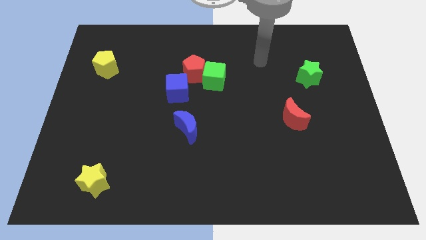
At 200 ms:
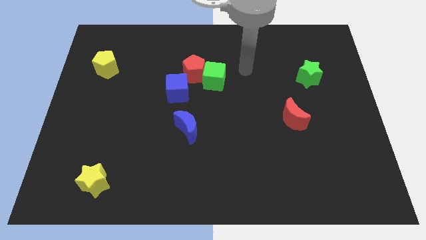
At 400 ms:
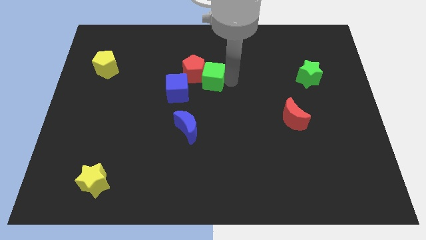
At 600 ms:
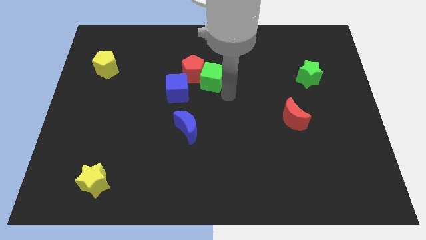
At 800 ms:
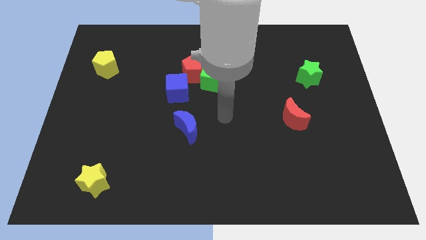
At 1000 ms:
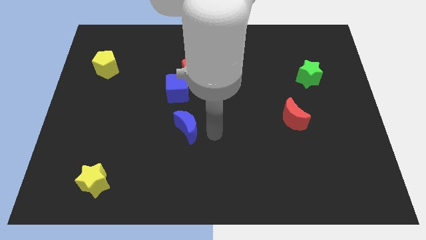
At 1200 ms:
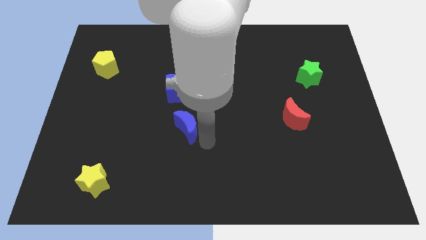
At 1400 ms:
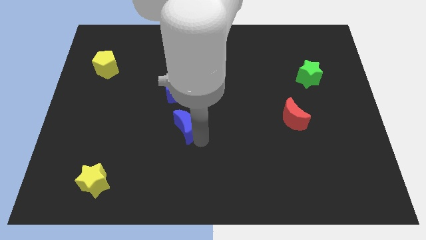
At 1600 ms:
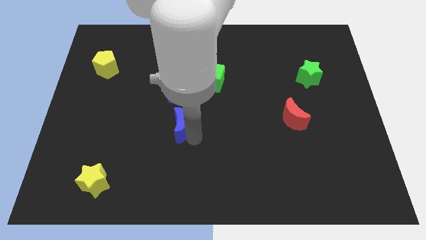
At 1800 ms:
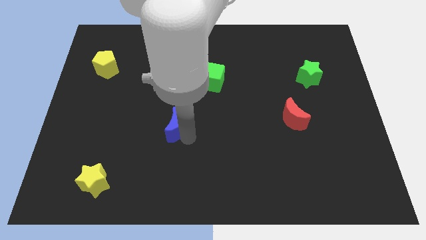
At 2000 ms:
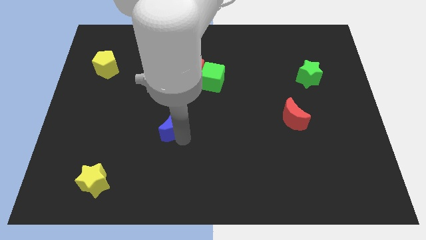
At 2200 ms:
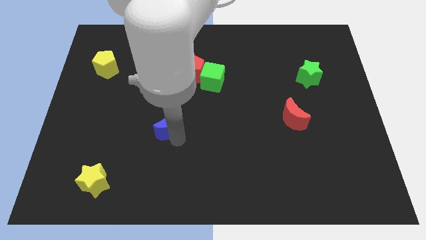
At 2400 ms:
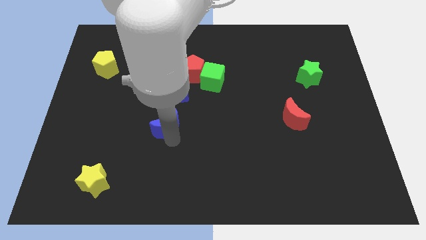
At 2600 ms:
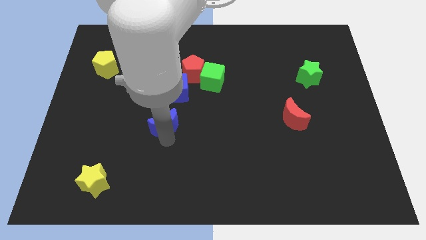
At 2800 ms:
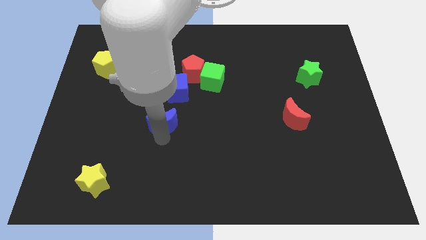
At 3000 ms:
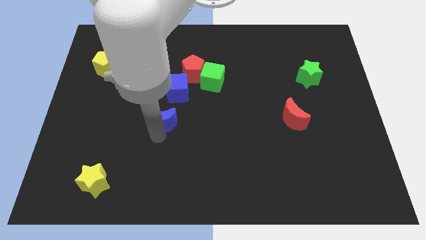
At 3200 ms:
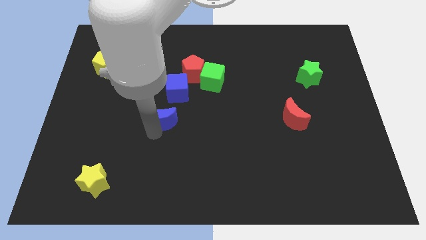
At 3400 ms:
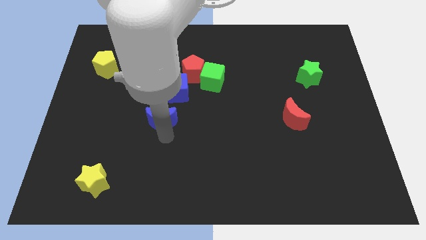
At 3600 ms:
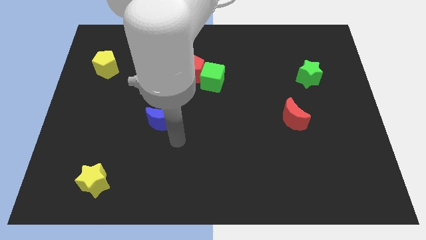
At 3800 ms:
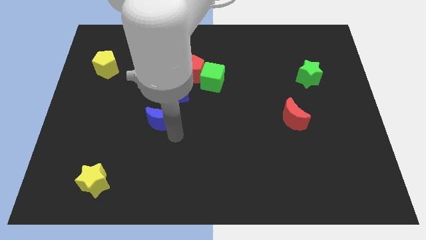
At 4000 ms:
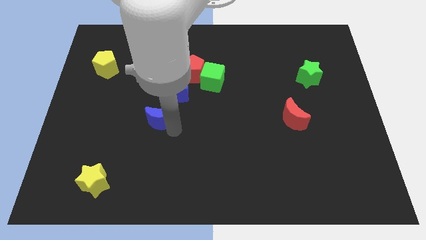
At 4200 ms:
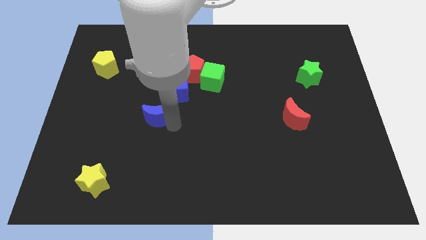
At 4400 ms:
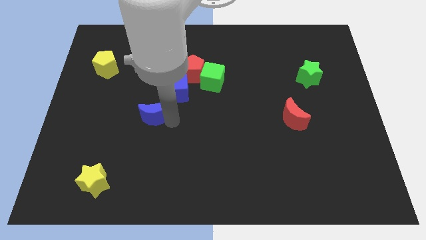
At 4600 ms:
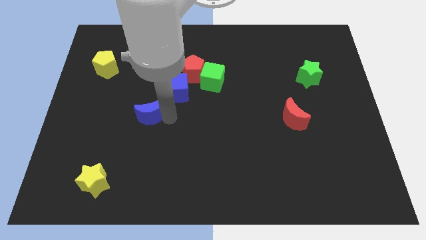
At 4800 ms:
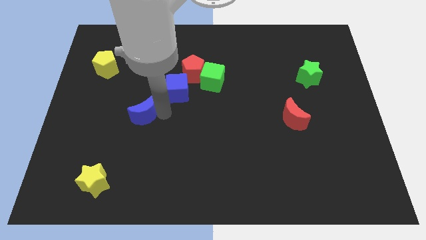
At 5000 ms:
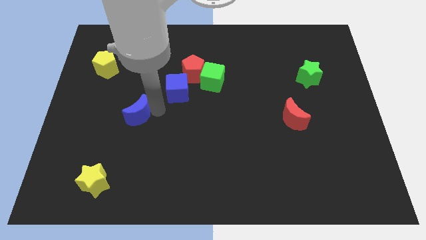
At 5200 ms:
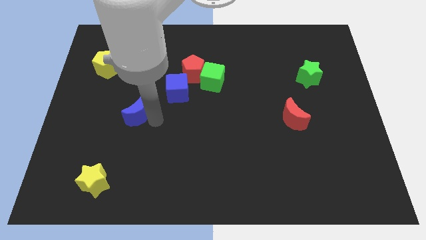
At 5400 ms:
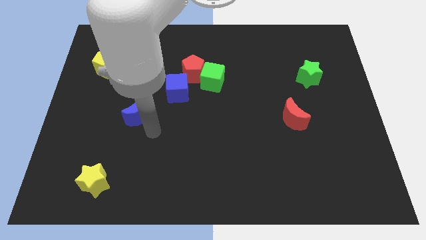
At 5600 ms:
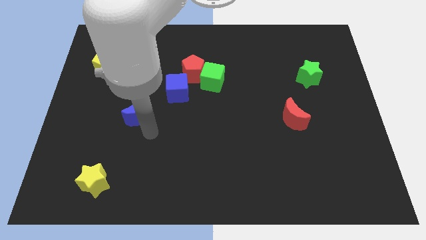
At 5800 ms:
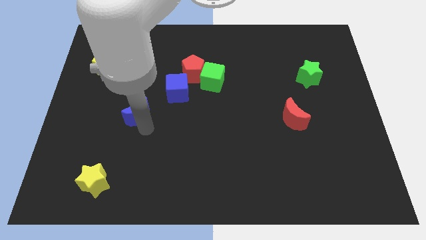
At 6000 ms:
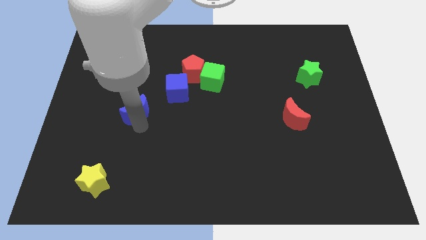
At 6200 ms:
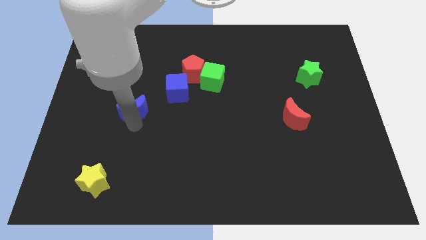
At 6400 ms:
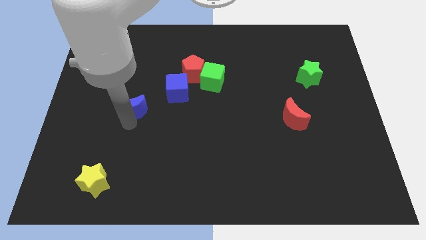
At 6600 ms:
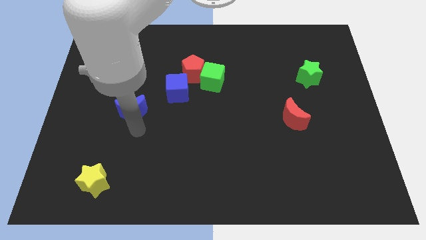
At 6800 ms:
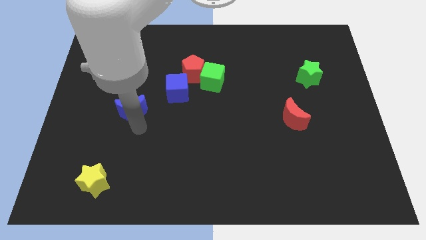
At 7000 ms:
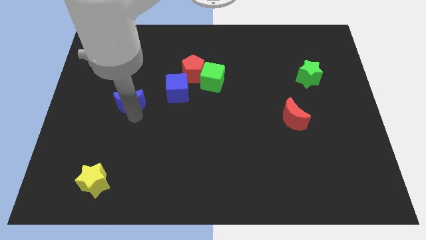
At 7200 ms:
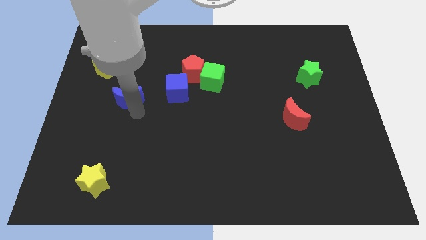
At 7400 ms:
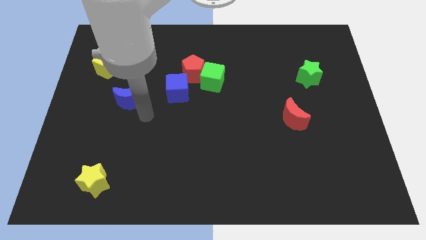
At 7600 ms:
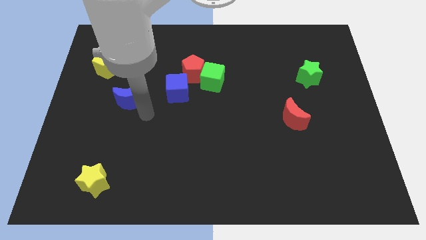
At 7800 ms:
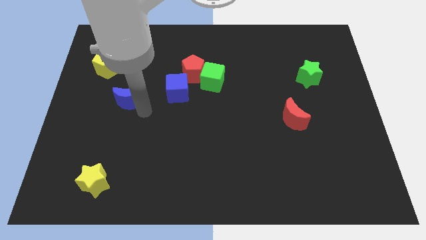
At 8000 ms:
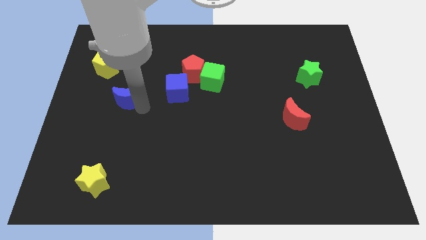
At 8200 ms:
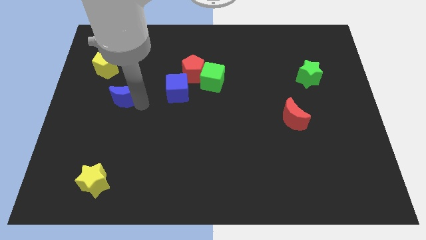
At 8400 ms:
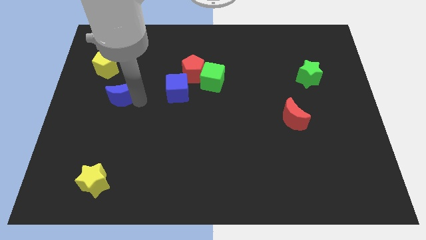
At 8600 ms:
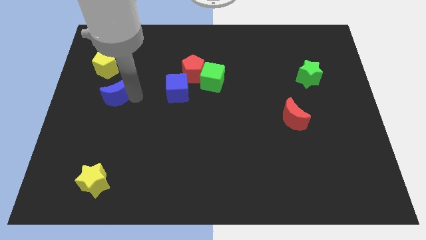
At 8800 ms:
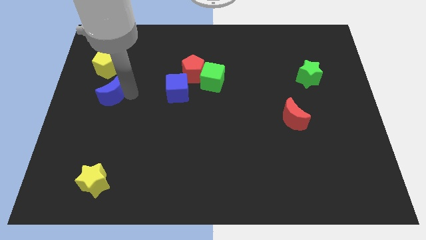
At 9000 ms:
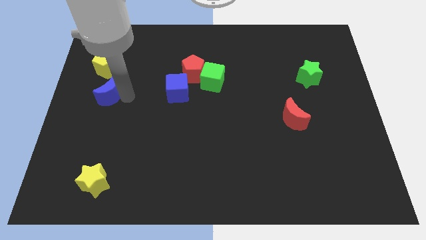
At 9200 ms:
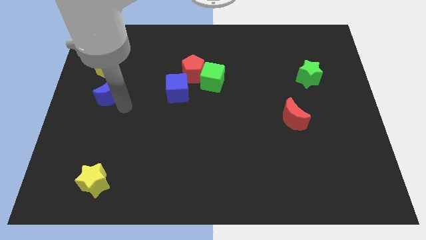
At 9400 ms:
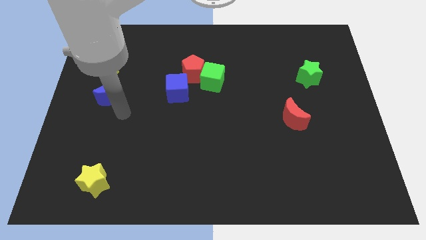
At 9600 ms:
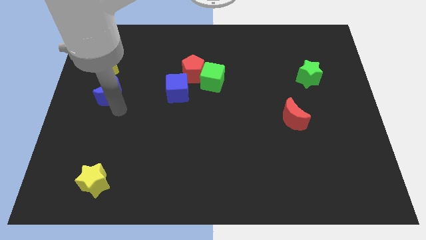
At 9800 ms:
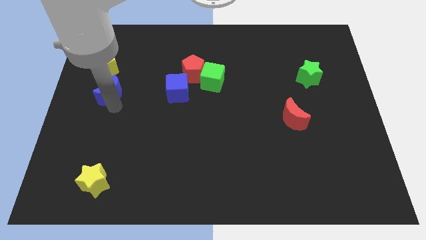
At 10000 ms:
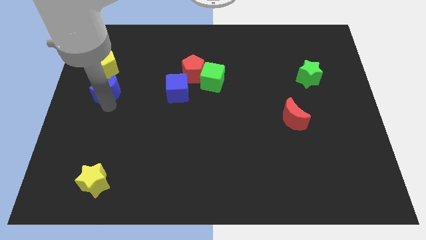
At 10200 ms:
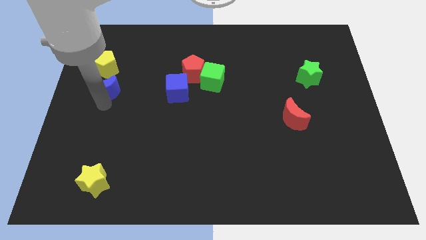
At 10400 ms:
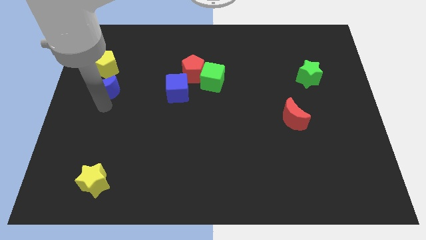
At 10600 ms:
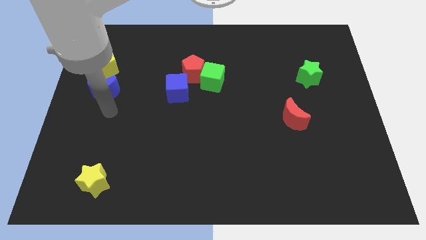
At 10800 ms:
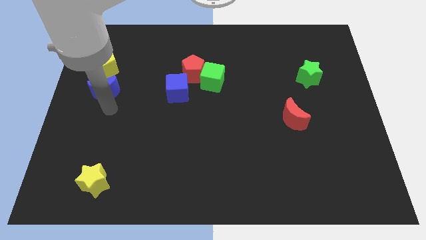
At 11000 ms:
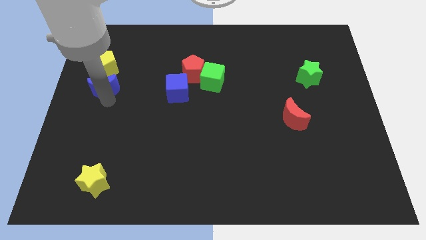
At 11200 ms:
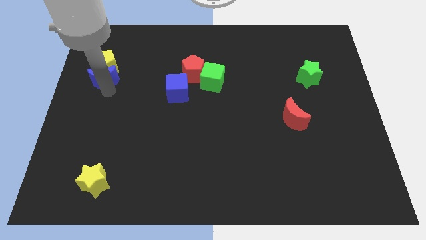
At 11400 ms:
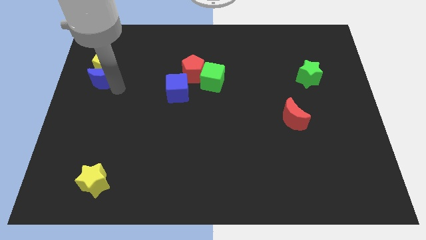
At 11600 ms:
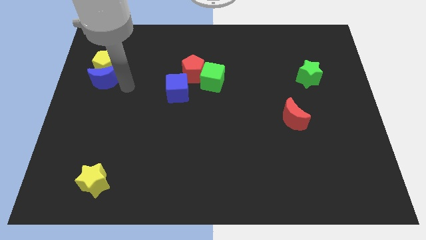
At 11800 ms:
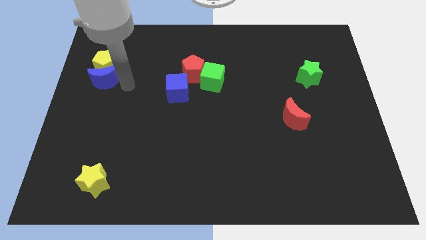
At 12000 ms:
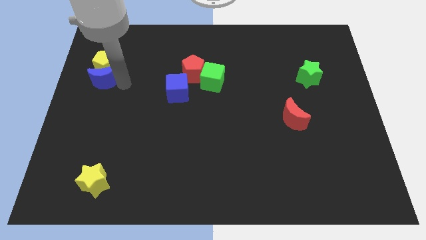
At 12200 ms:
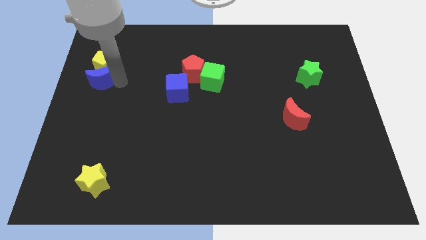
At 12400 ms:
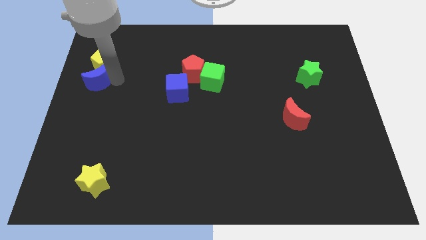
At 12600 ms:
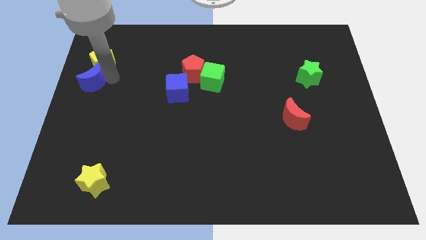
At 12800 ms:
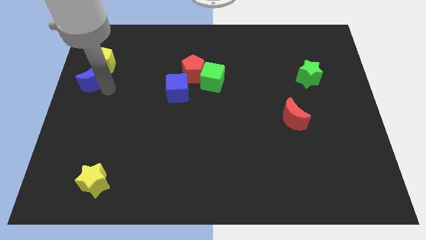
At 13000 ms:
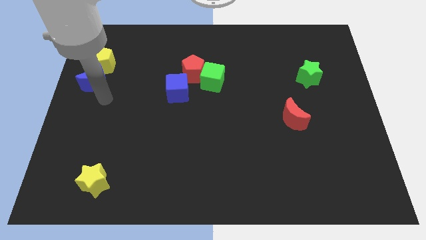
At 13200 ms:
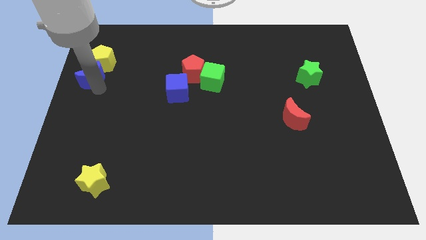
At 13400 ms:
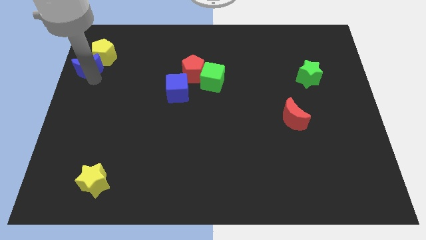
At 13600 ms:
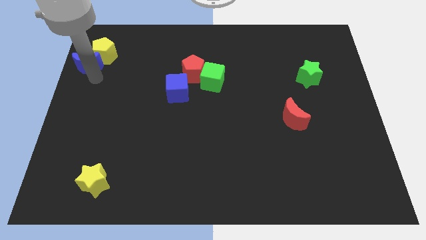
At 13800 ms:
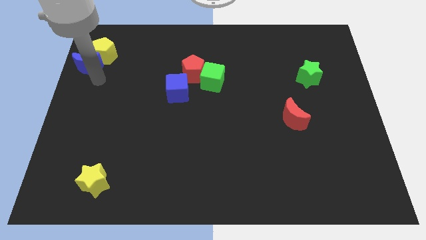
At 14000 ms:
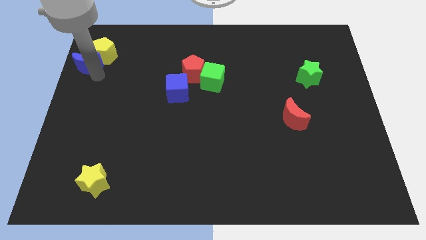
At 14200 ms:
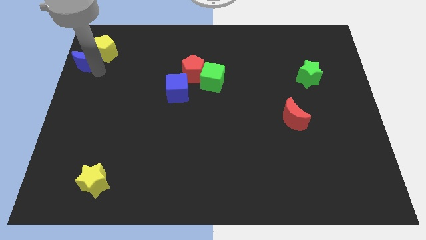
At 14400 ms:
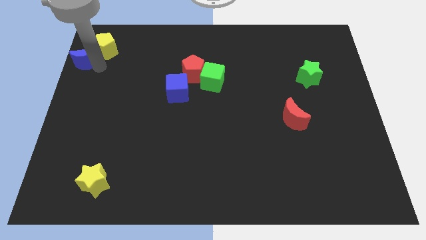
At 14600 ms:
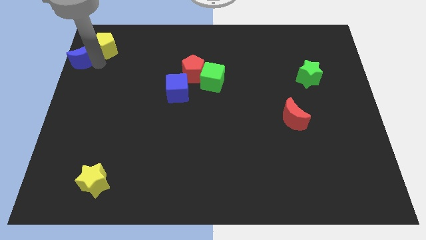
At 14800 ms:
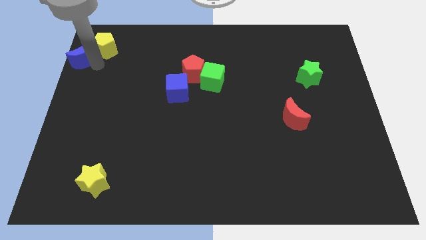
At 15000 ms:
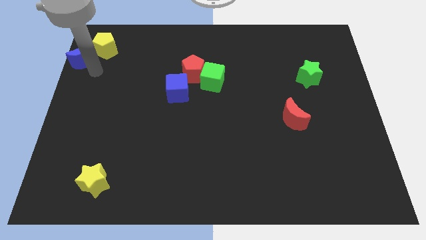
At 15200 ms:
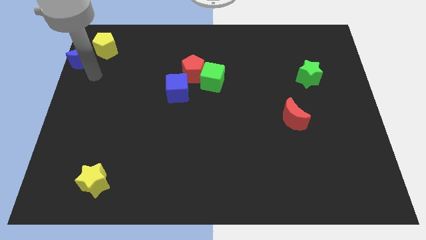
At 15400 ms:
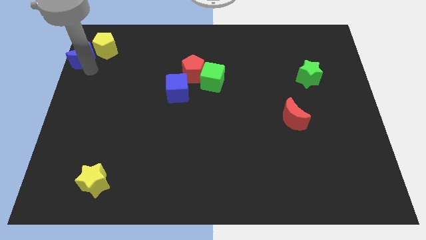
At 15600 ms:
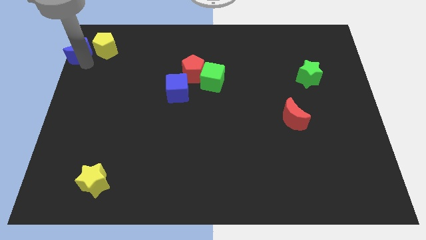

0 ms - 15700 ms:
put the blue moon to the upper left corner
